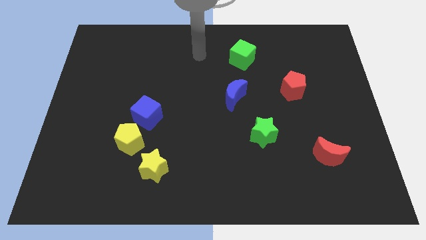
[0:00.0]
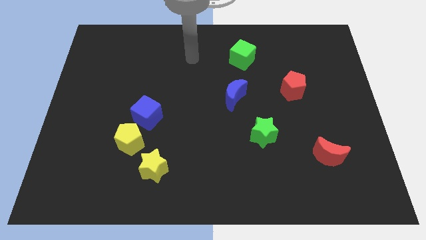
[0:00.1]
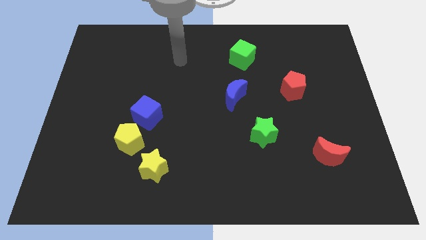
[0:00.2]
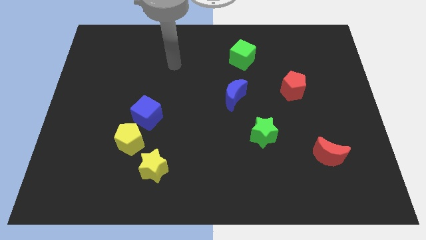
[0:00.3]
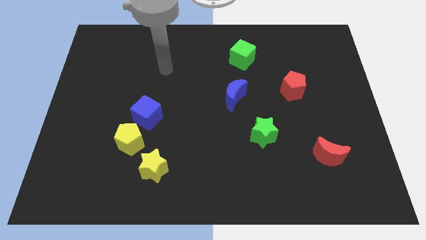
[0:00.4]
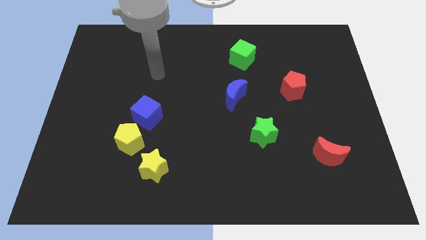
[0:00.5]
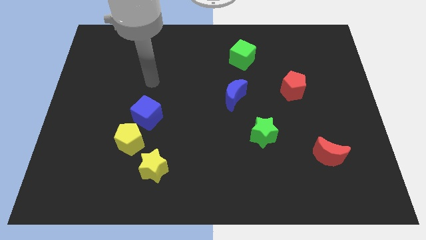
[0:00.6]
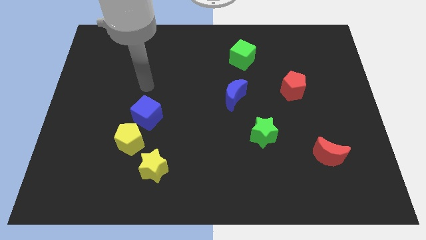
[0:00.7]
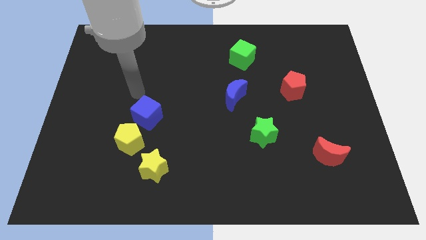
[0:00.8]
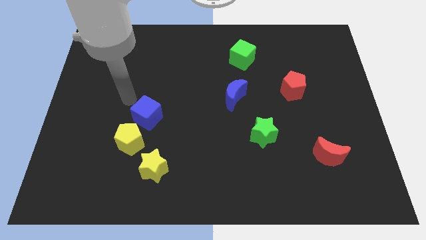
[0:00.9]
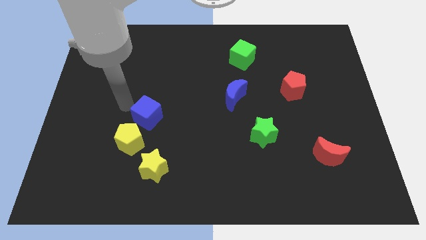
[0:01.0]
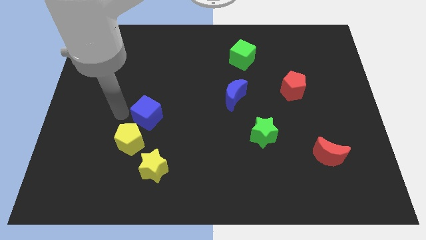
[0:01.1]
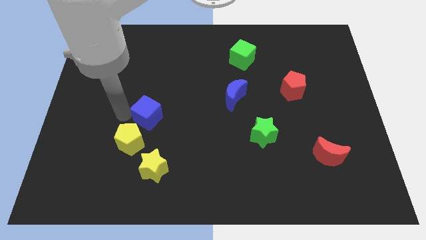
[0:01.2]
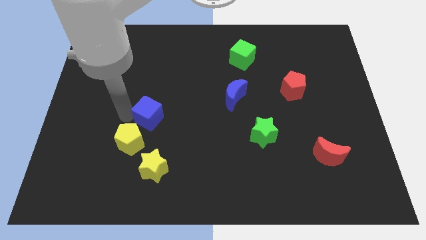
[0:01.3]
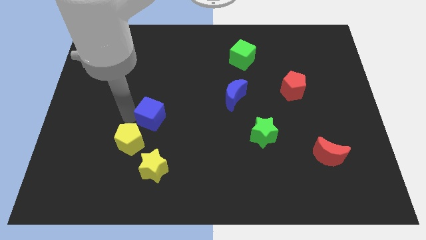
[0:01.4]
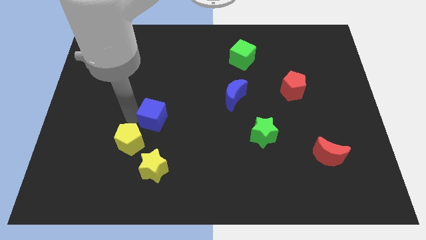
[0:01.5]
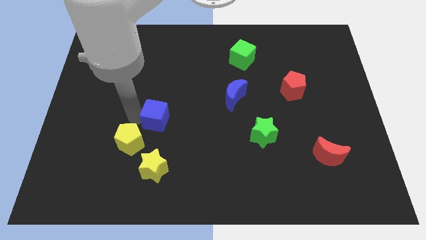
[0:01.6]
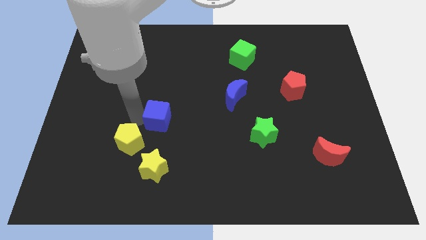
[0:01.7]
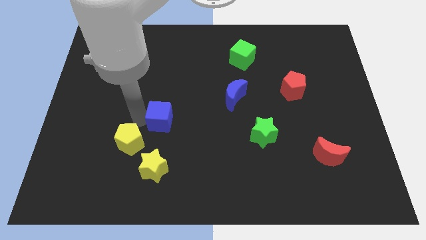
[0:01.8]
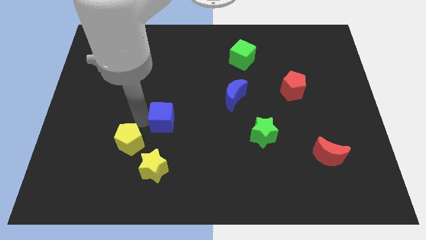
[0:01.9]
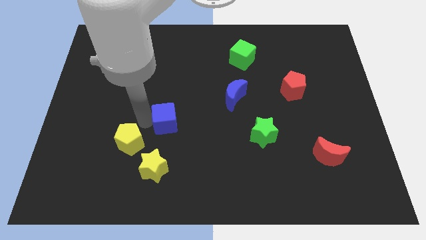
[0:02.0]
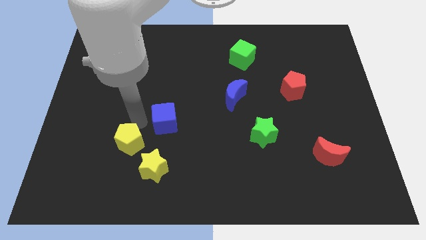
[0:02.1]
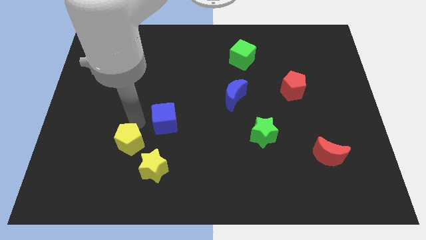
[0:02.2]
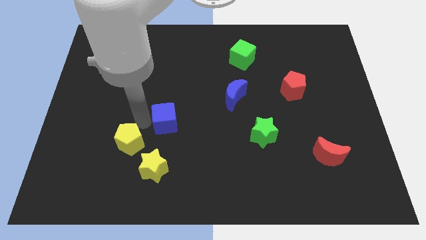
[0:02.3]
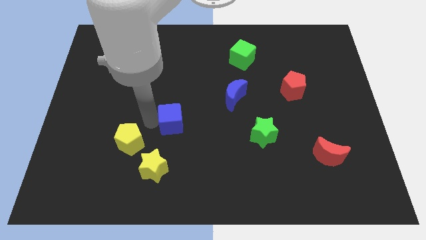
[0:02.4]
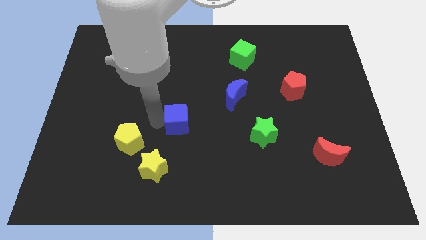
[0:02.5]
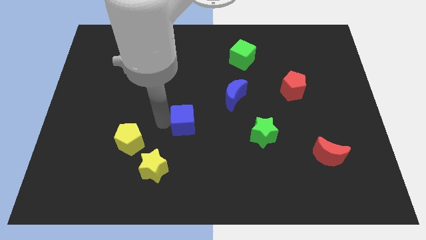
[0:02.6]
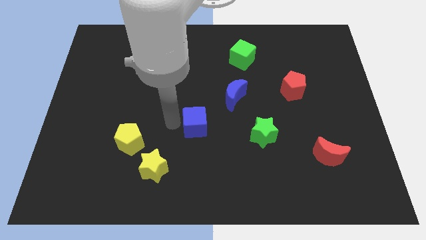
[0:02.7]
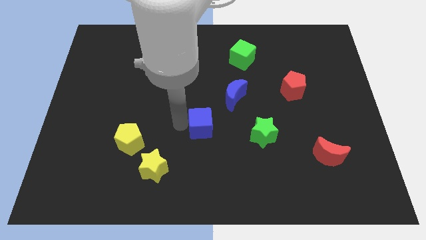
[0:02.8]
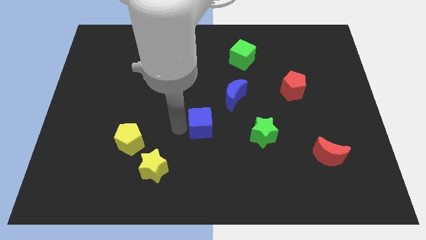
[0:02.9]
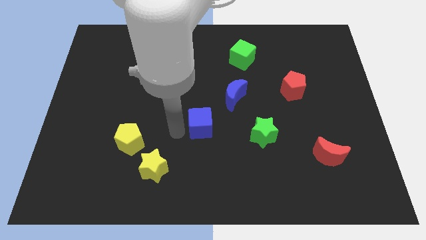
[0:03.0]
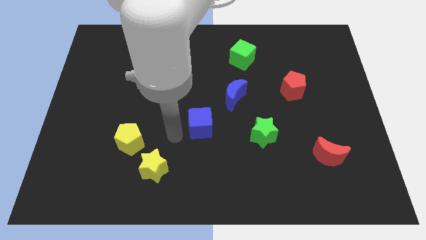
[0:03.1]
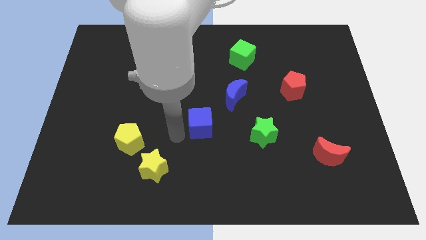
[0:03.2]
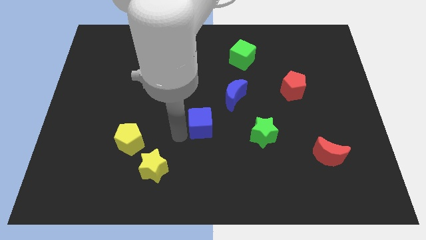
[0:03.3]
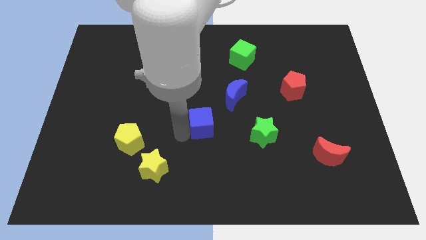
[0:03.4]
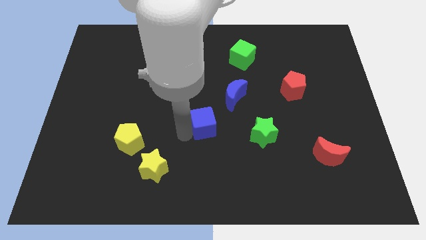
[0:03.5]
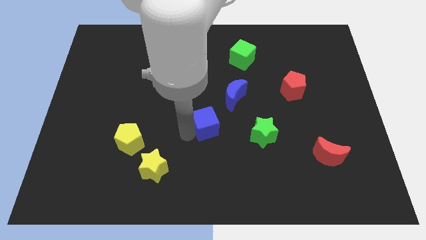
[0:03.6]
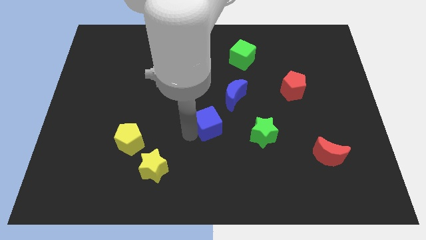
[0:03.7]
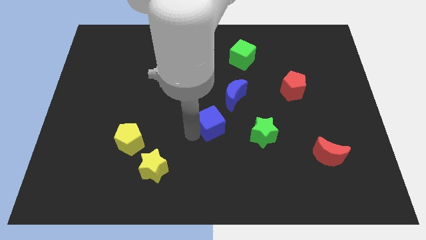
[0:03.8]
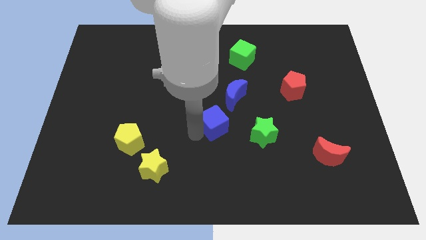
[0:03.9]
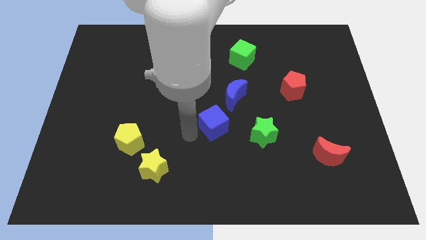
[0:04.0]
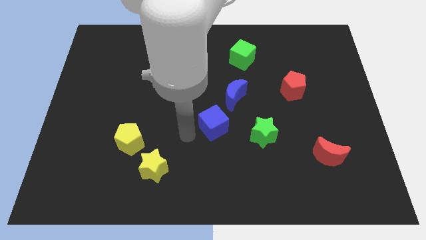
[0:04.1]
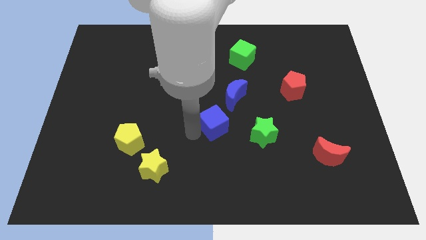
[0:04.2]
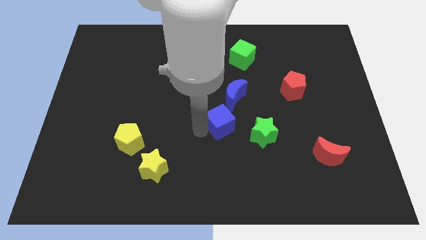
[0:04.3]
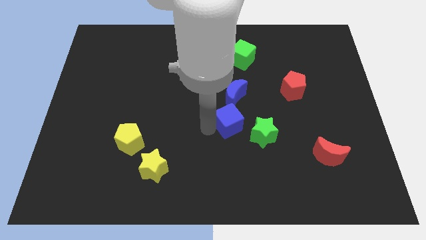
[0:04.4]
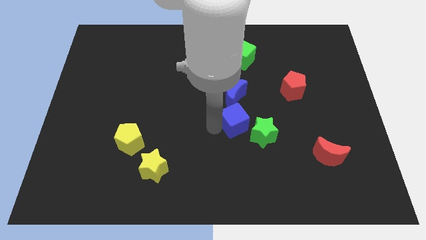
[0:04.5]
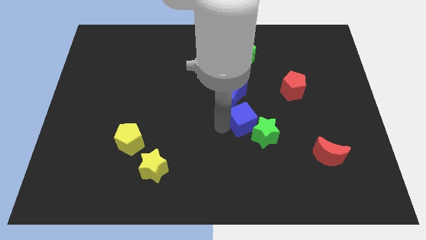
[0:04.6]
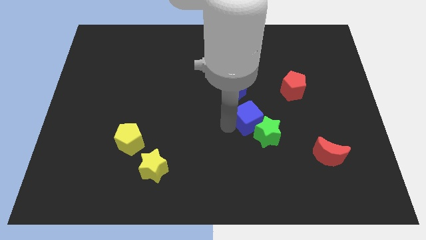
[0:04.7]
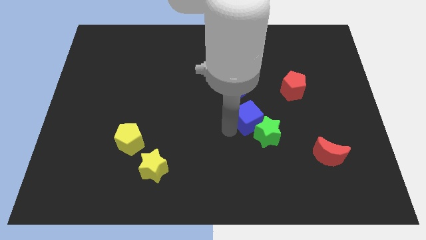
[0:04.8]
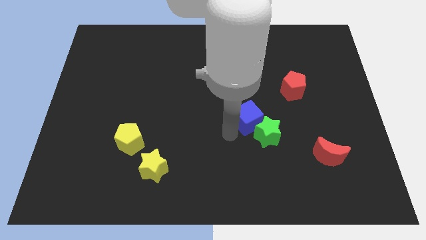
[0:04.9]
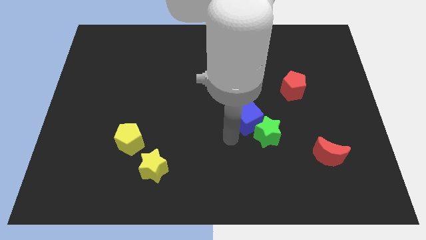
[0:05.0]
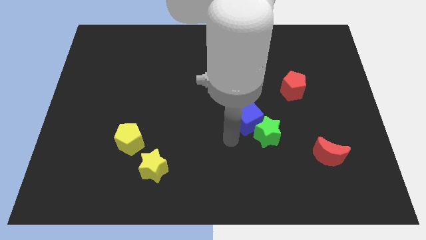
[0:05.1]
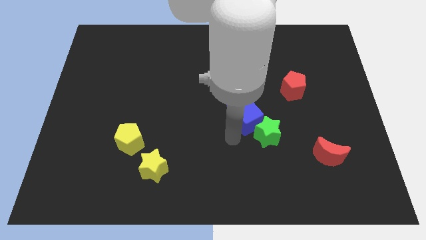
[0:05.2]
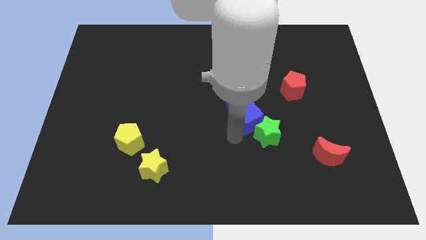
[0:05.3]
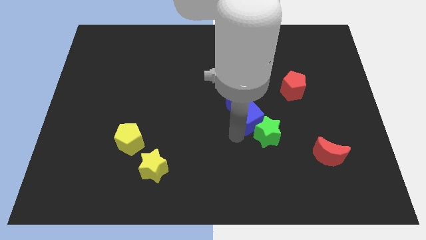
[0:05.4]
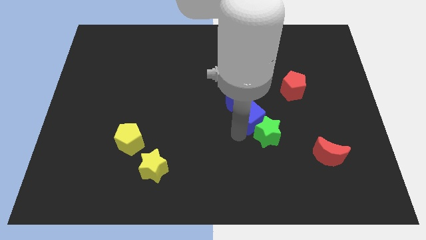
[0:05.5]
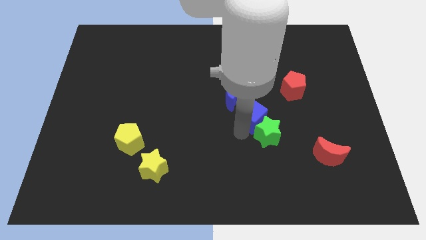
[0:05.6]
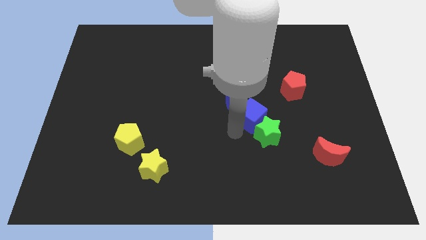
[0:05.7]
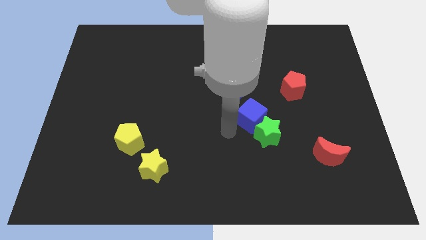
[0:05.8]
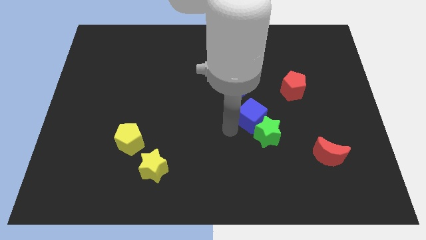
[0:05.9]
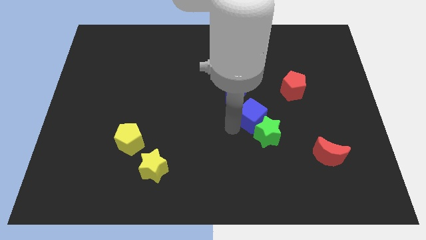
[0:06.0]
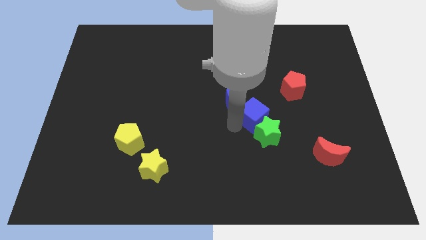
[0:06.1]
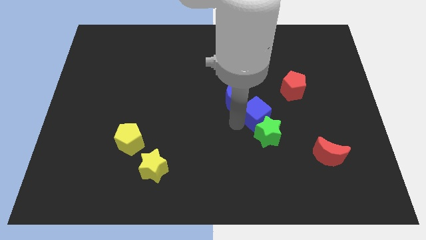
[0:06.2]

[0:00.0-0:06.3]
push the blue cube to the bottom left side of the red pentagon

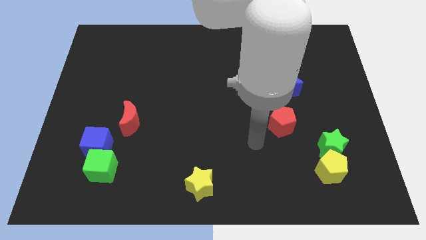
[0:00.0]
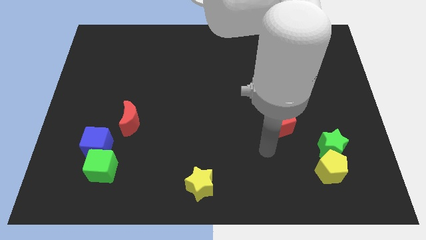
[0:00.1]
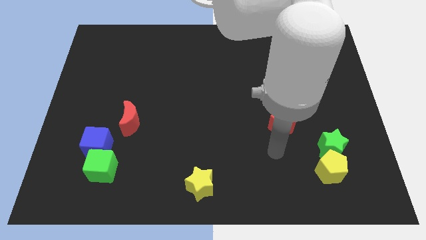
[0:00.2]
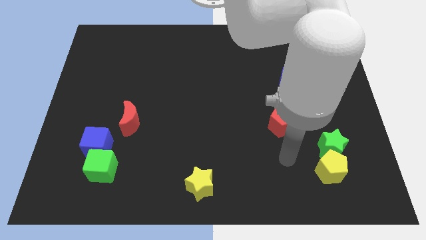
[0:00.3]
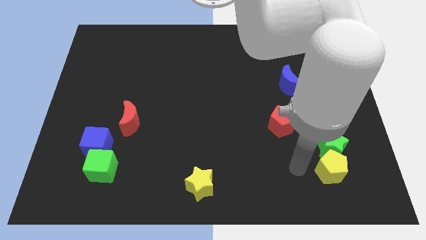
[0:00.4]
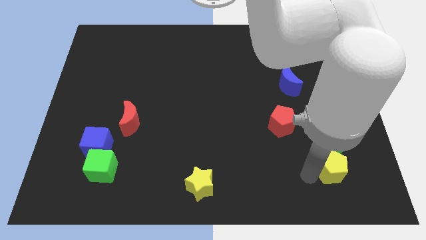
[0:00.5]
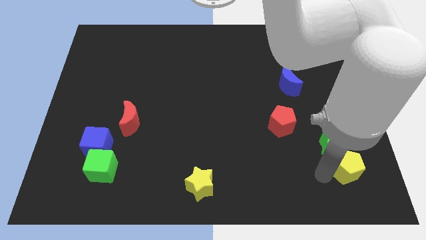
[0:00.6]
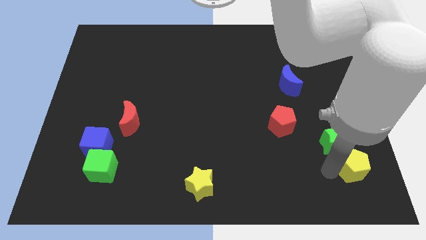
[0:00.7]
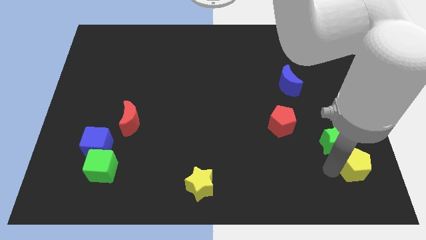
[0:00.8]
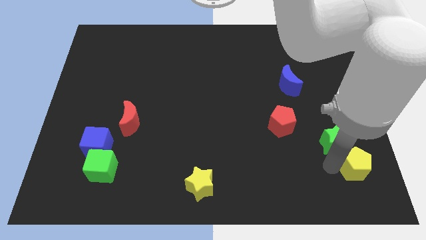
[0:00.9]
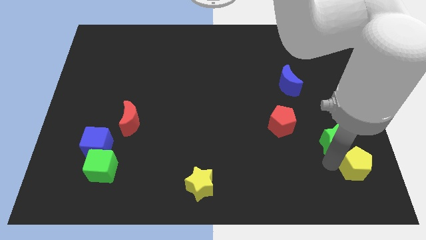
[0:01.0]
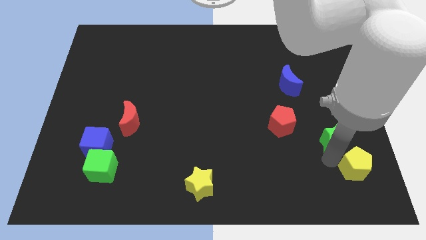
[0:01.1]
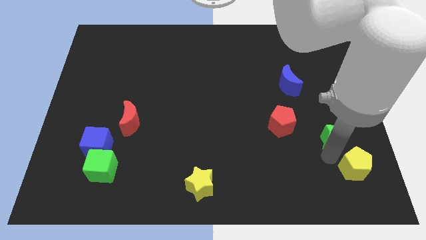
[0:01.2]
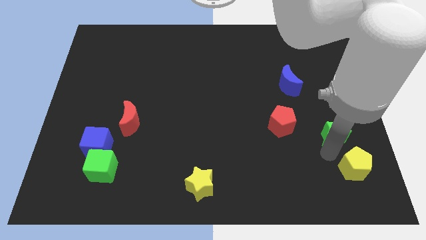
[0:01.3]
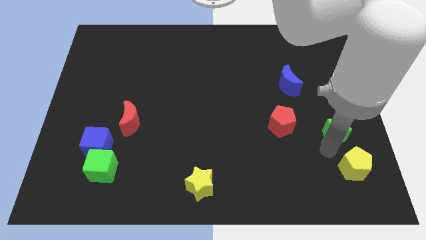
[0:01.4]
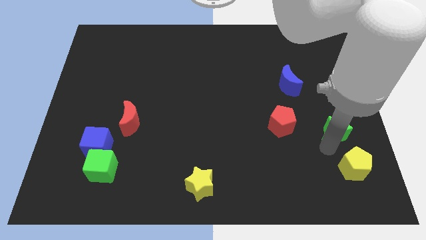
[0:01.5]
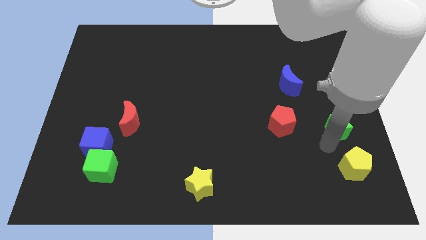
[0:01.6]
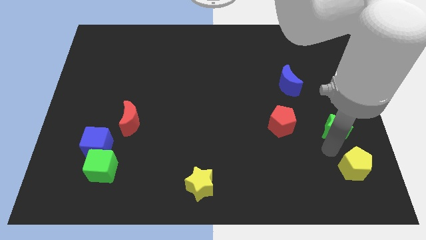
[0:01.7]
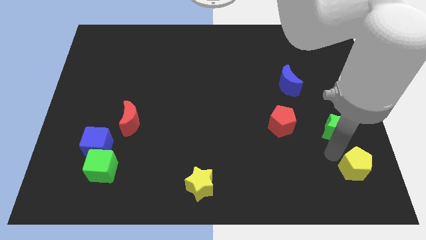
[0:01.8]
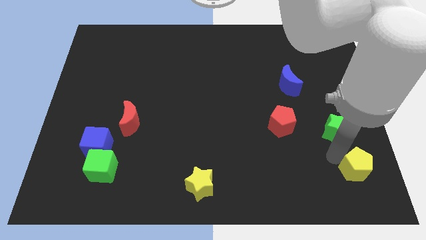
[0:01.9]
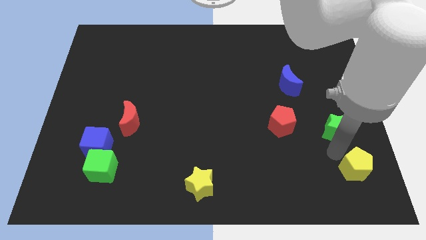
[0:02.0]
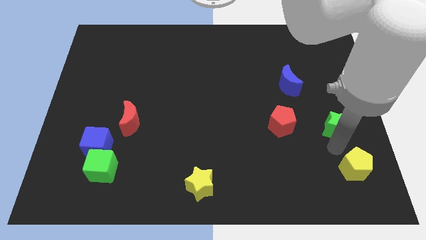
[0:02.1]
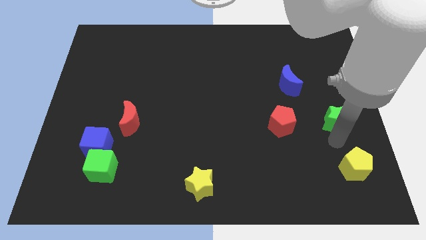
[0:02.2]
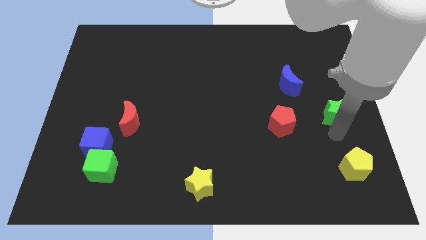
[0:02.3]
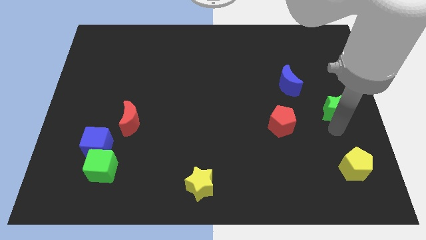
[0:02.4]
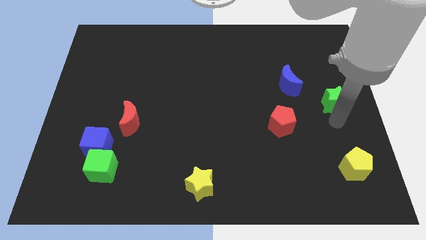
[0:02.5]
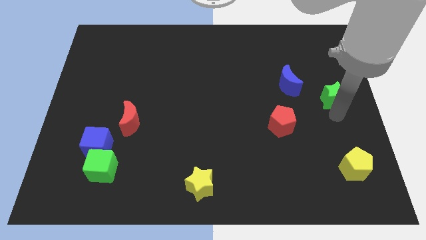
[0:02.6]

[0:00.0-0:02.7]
put the green star to the right of the blue moon
